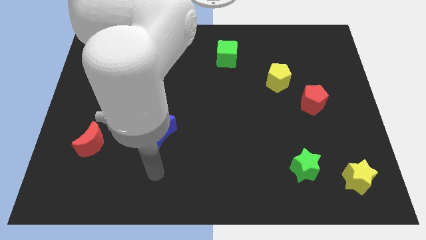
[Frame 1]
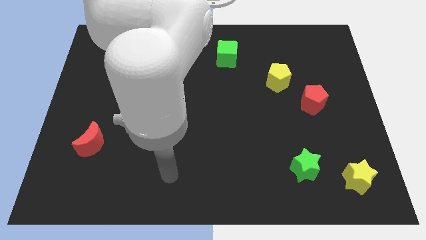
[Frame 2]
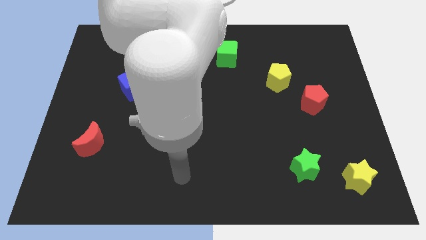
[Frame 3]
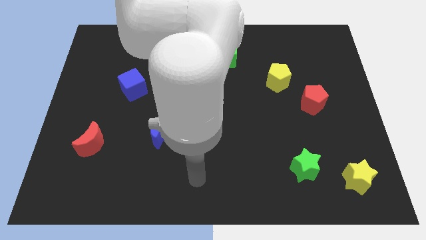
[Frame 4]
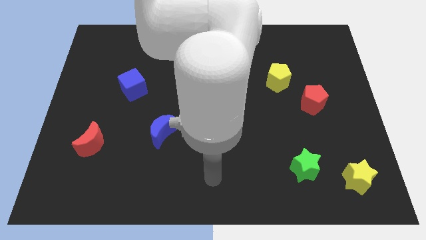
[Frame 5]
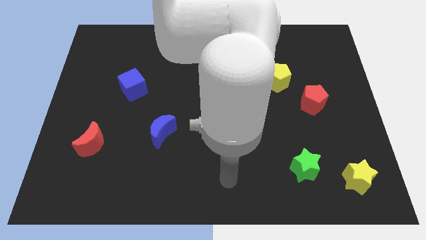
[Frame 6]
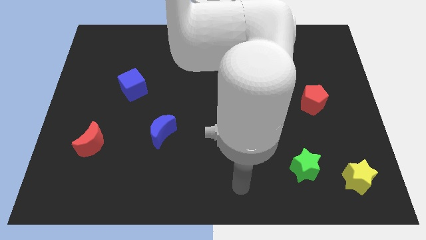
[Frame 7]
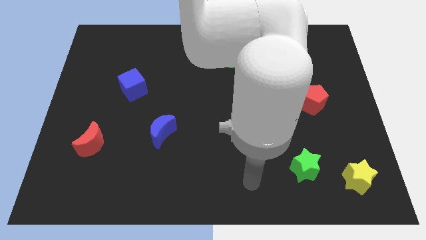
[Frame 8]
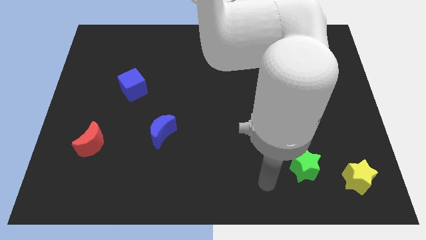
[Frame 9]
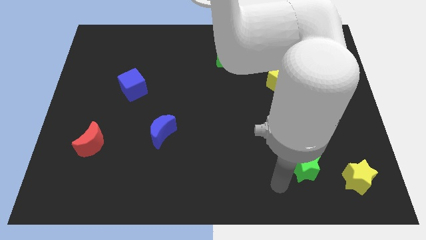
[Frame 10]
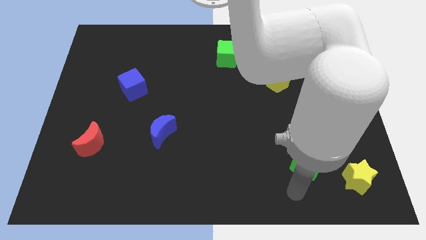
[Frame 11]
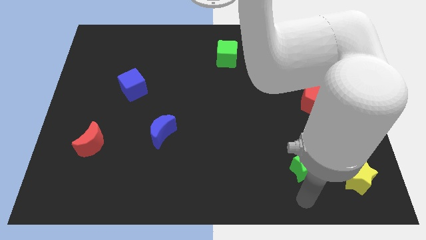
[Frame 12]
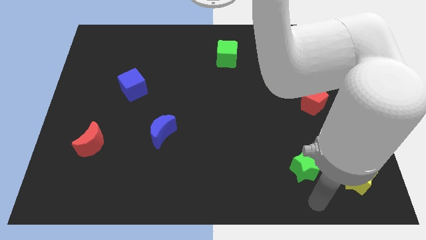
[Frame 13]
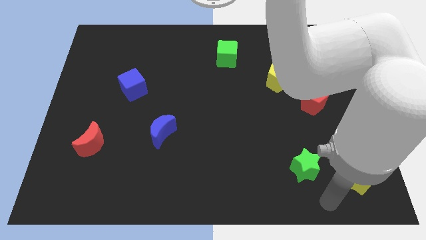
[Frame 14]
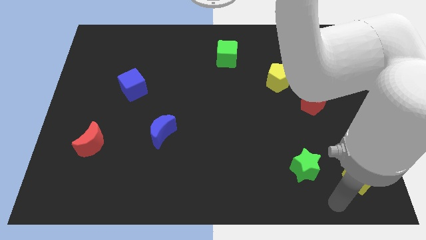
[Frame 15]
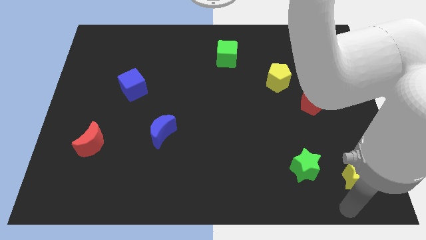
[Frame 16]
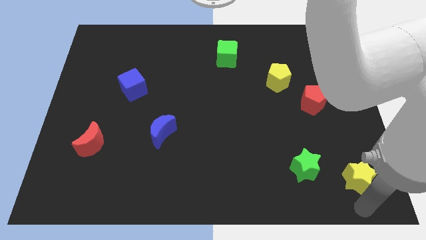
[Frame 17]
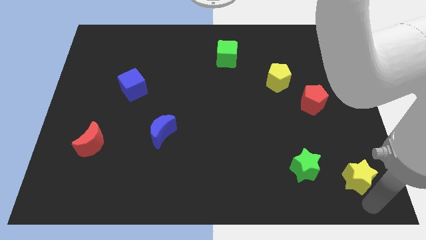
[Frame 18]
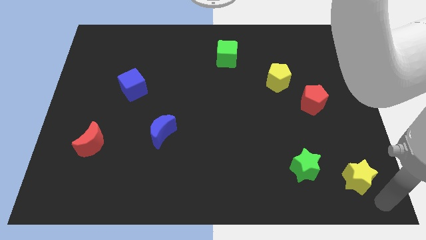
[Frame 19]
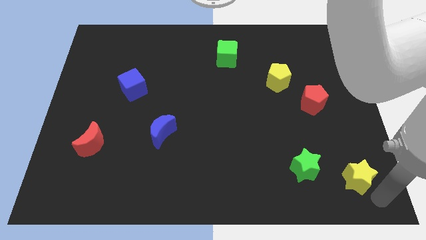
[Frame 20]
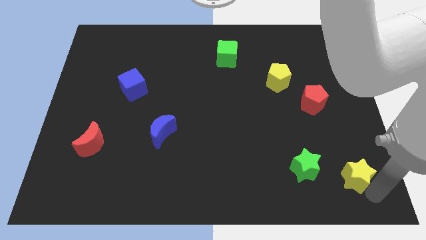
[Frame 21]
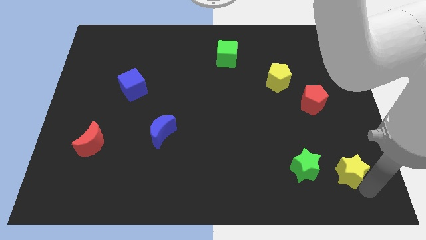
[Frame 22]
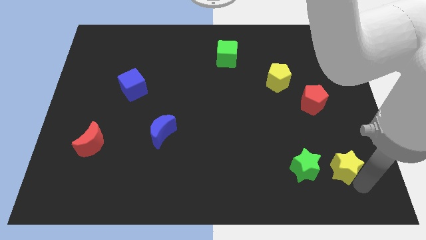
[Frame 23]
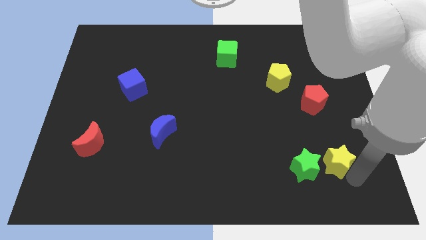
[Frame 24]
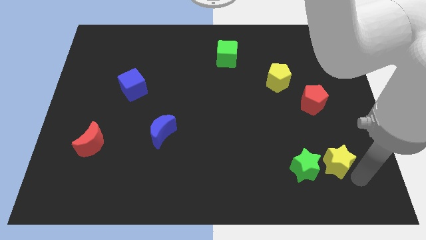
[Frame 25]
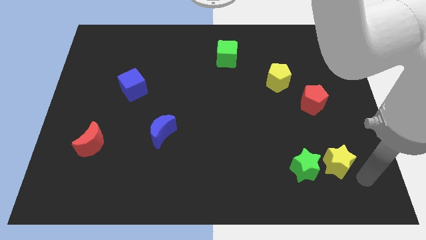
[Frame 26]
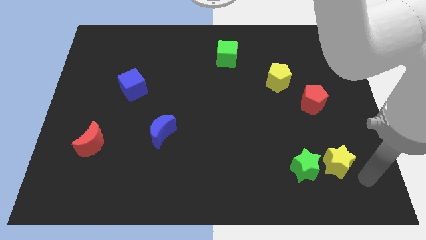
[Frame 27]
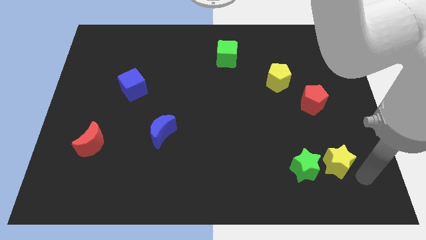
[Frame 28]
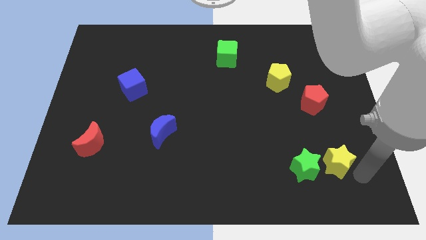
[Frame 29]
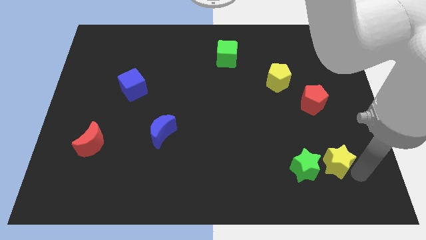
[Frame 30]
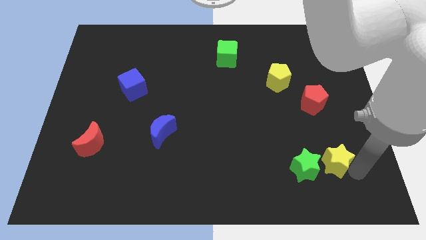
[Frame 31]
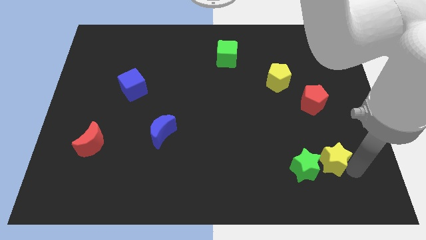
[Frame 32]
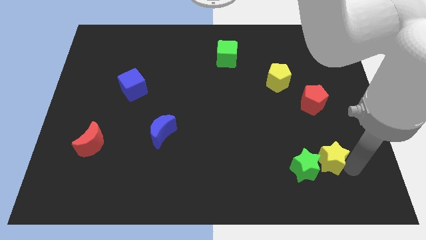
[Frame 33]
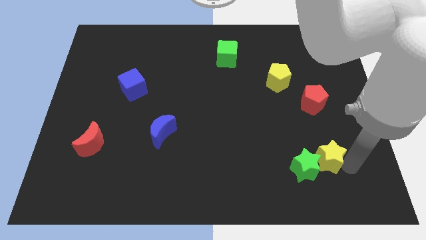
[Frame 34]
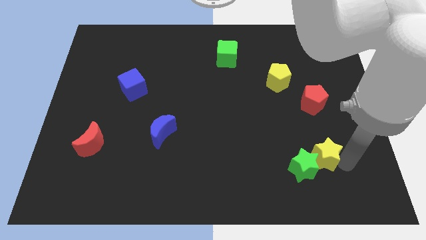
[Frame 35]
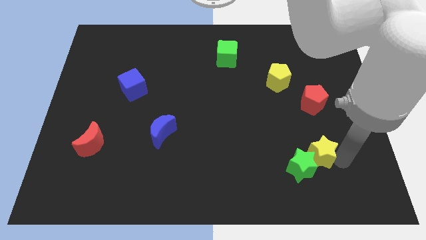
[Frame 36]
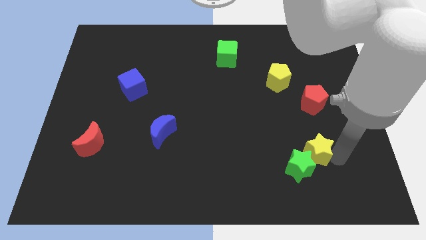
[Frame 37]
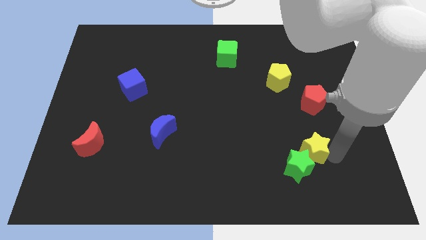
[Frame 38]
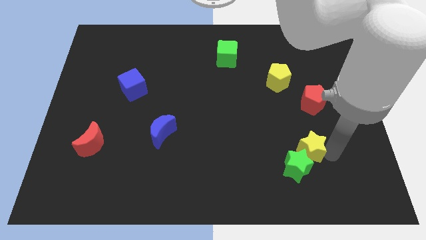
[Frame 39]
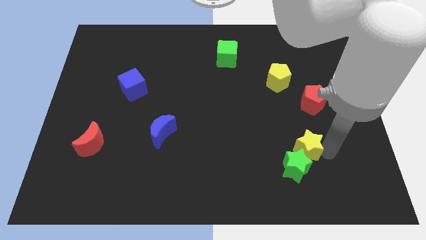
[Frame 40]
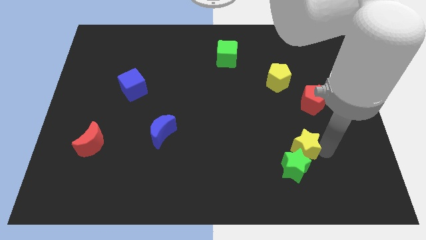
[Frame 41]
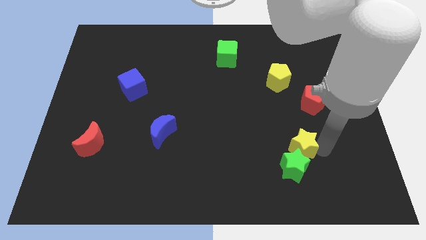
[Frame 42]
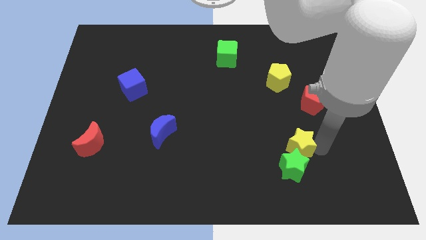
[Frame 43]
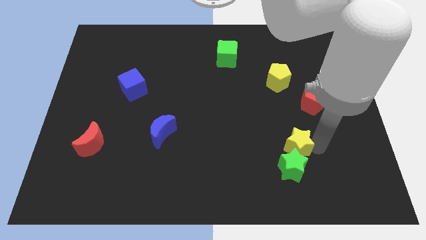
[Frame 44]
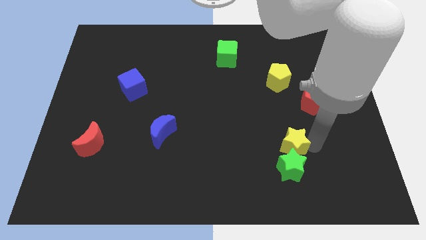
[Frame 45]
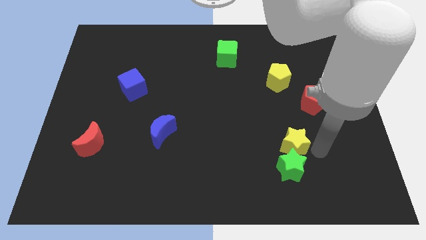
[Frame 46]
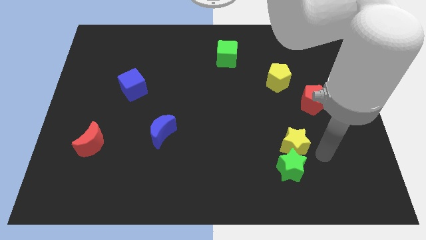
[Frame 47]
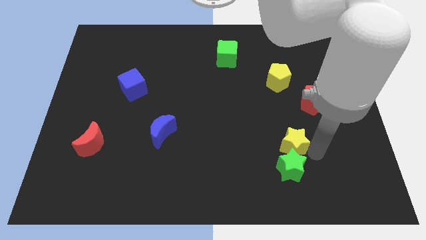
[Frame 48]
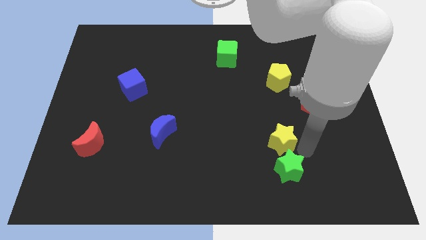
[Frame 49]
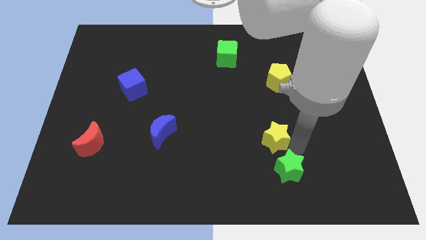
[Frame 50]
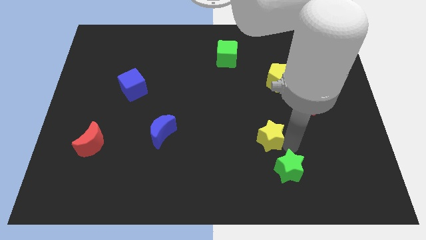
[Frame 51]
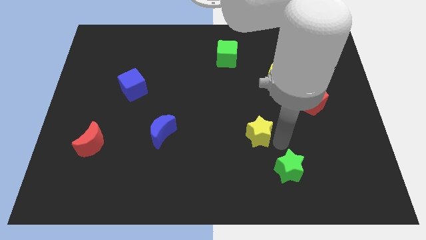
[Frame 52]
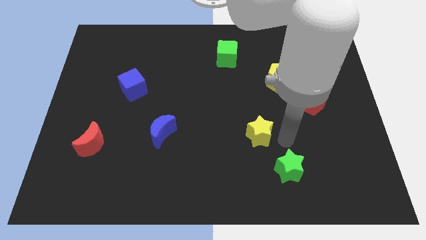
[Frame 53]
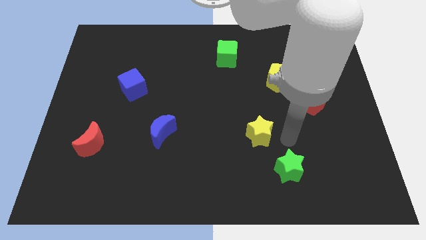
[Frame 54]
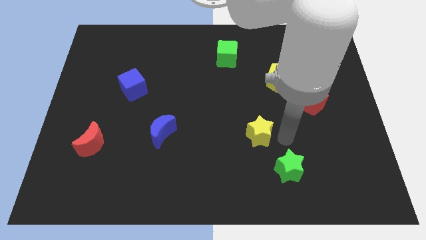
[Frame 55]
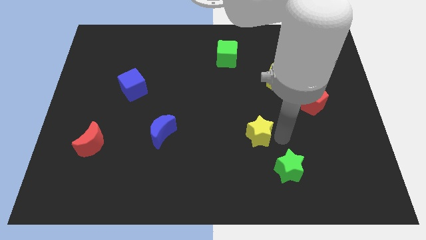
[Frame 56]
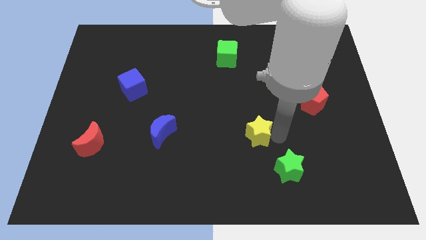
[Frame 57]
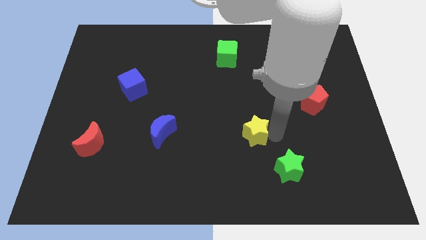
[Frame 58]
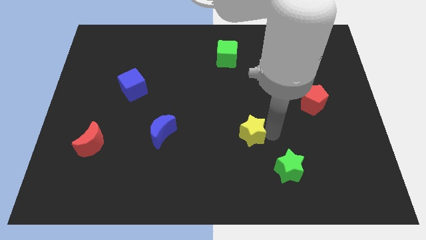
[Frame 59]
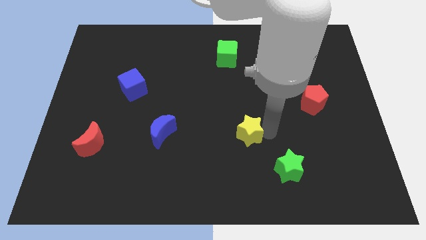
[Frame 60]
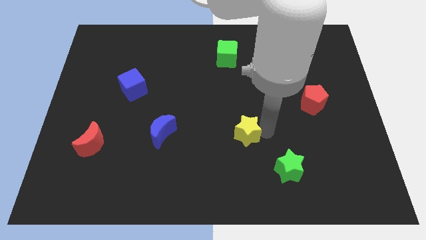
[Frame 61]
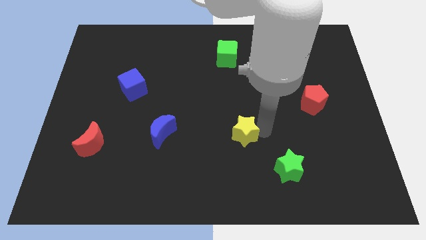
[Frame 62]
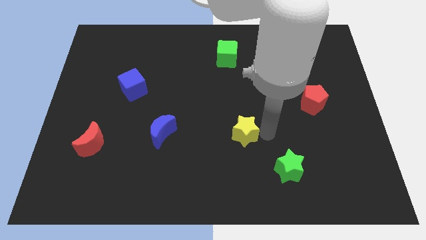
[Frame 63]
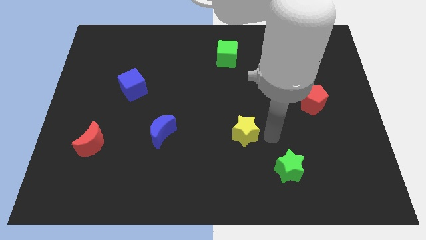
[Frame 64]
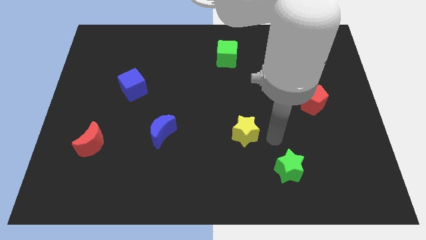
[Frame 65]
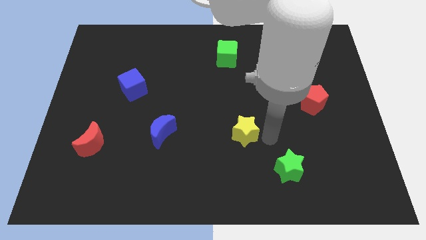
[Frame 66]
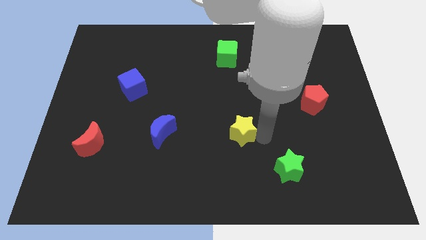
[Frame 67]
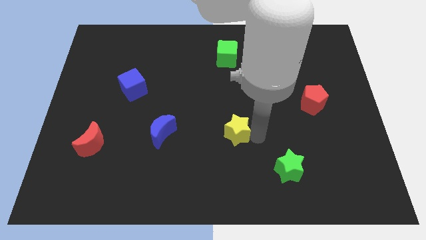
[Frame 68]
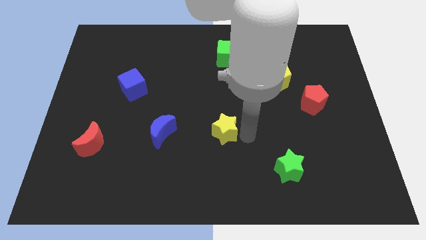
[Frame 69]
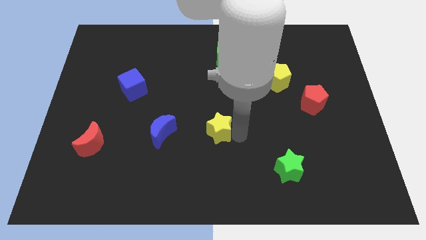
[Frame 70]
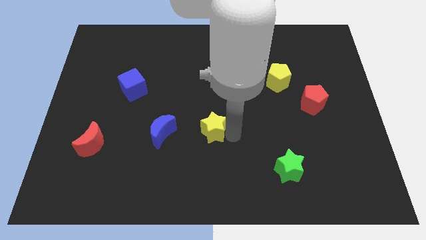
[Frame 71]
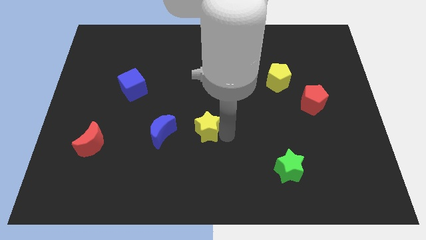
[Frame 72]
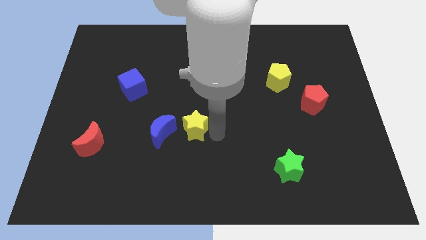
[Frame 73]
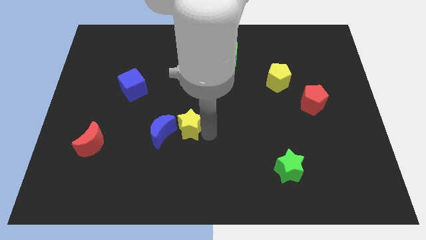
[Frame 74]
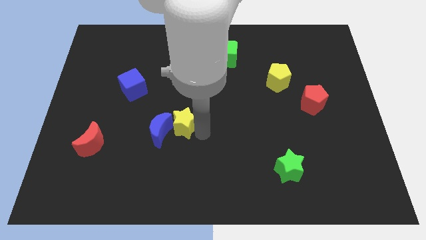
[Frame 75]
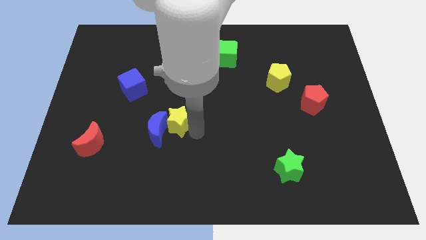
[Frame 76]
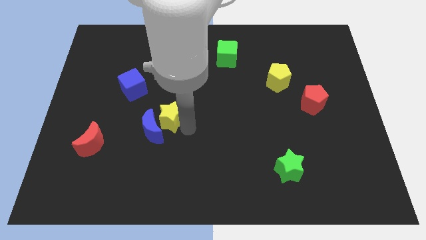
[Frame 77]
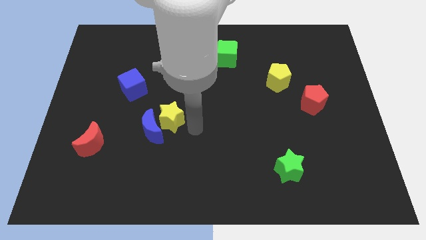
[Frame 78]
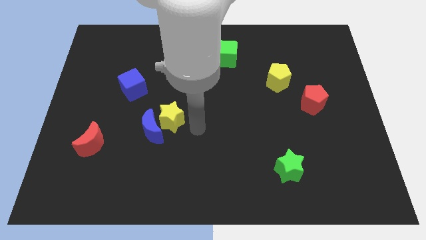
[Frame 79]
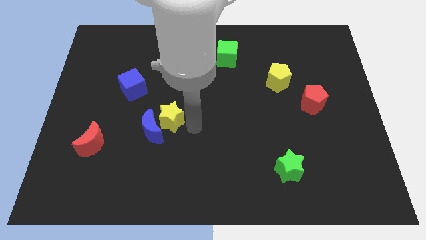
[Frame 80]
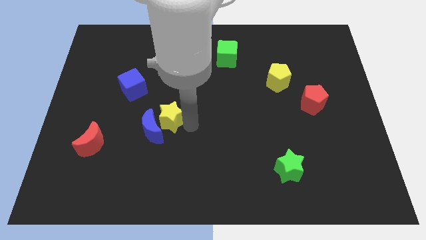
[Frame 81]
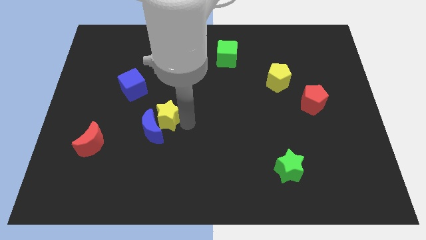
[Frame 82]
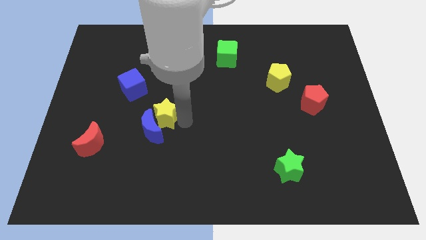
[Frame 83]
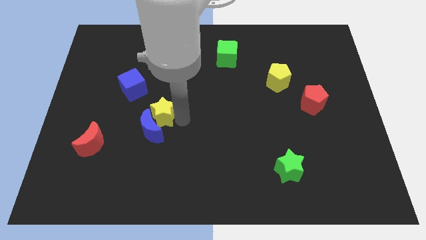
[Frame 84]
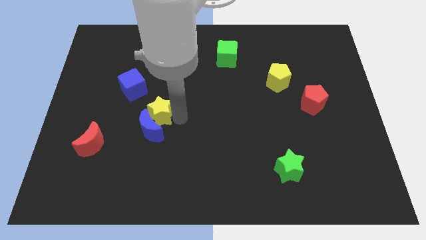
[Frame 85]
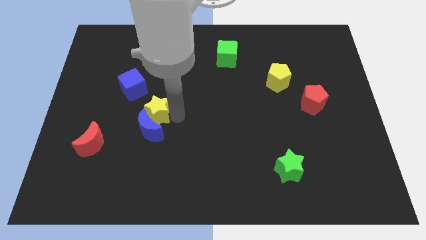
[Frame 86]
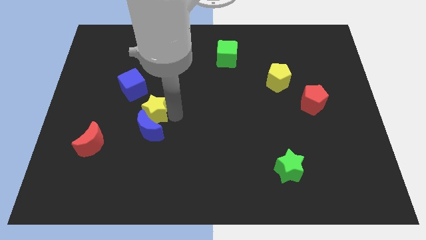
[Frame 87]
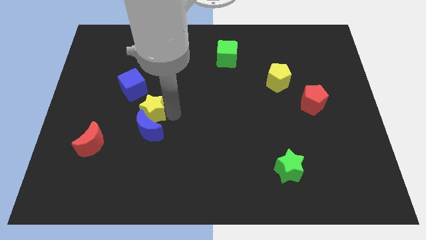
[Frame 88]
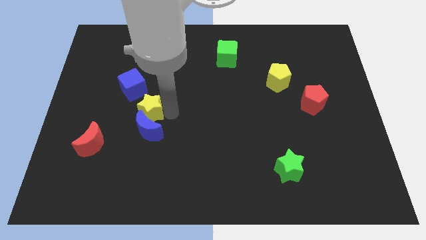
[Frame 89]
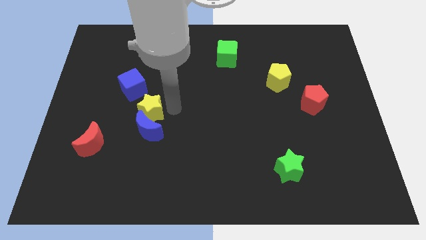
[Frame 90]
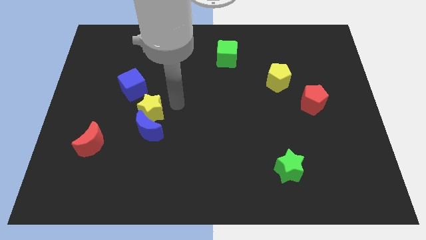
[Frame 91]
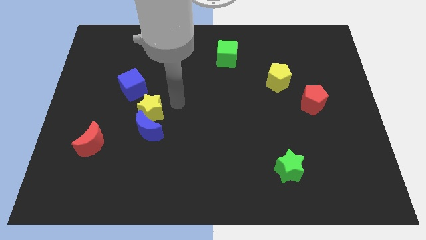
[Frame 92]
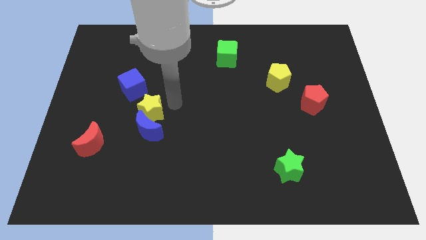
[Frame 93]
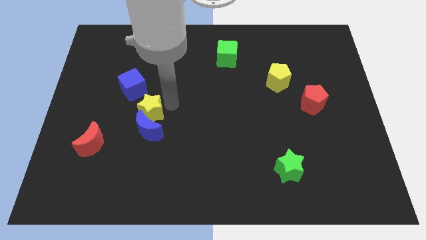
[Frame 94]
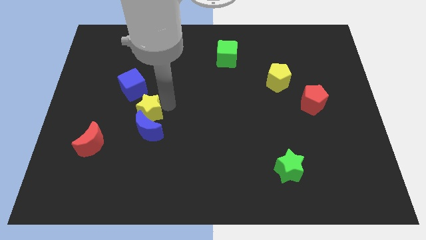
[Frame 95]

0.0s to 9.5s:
put the yellow star below the blue cube
